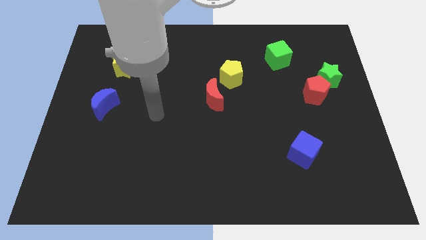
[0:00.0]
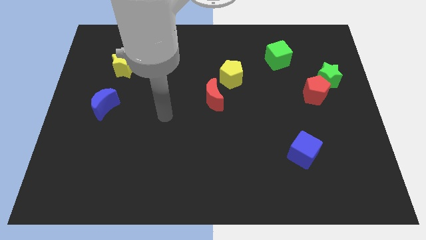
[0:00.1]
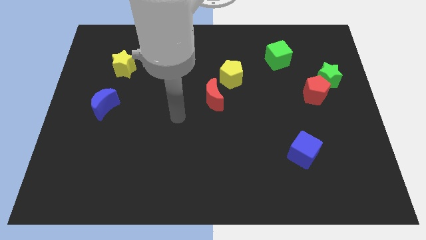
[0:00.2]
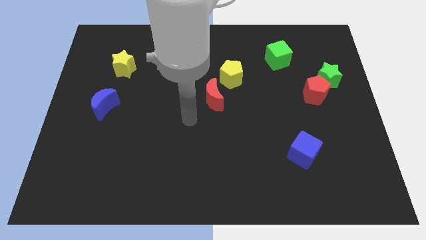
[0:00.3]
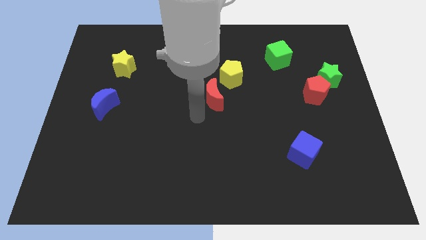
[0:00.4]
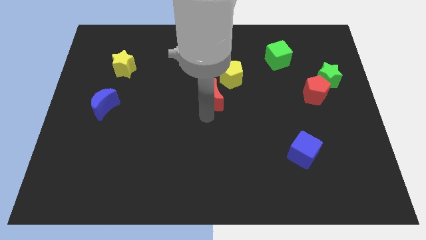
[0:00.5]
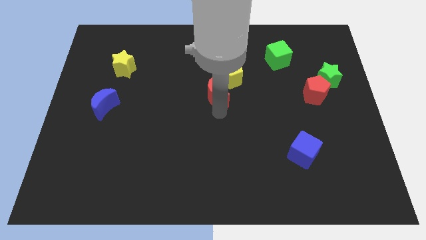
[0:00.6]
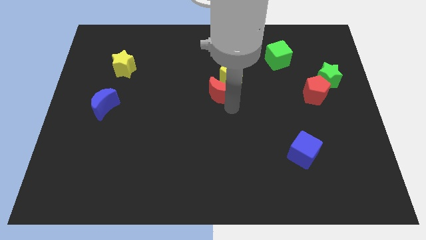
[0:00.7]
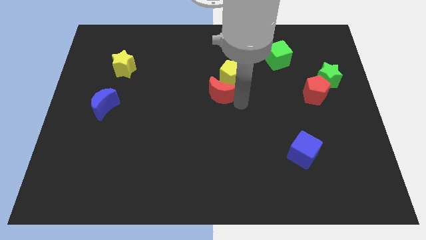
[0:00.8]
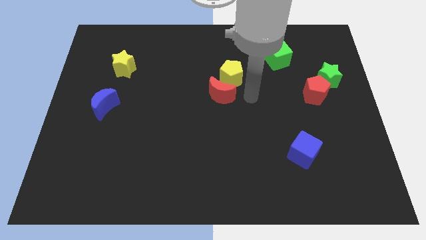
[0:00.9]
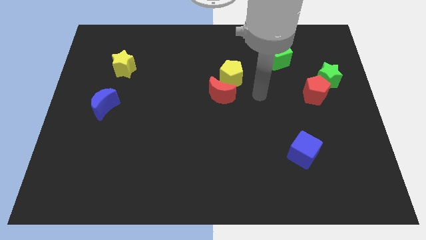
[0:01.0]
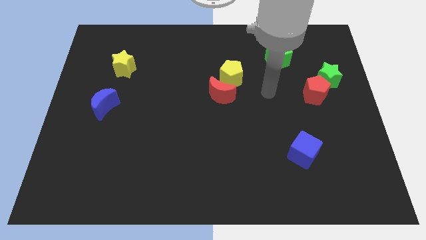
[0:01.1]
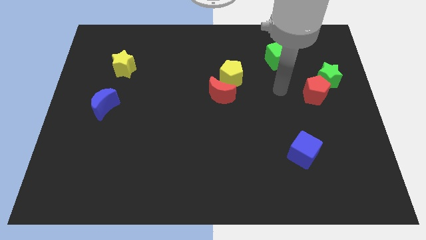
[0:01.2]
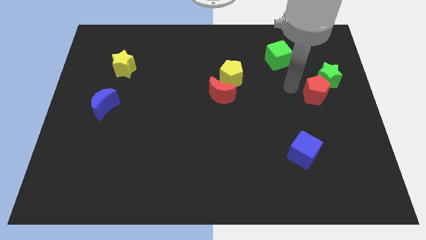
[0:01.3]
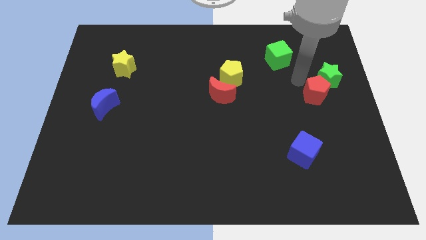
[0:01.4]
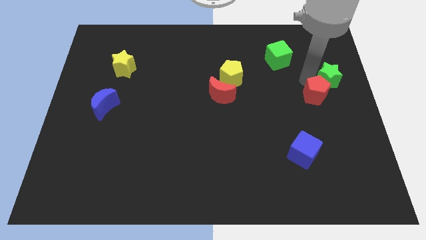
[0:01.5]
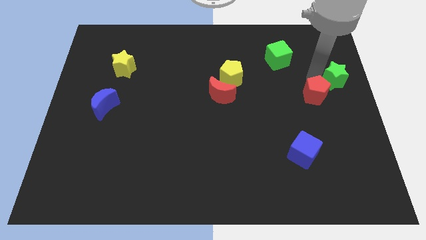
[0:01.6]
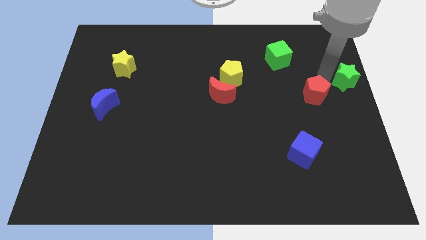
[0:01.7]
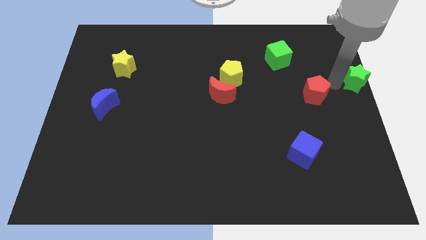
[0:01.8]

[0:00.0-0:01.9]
separate the red pentagon from the green star

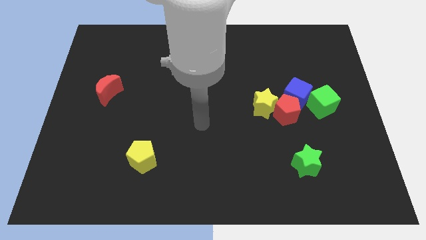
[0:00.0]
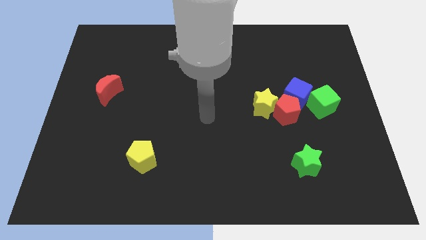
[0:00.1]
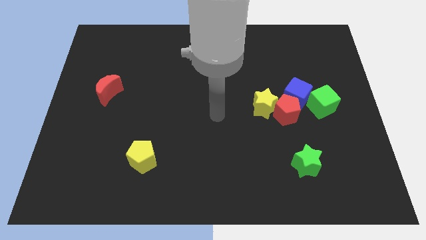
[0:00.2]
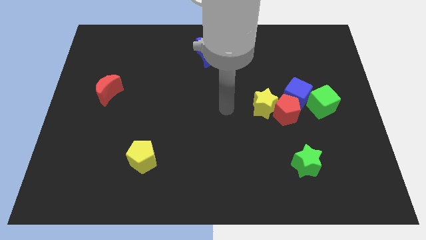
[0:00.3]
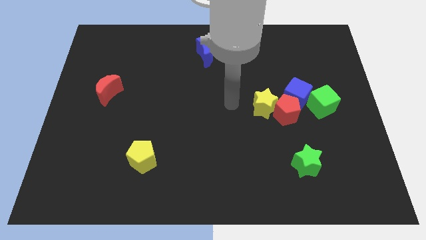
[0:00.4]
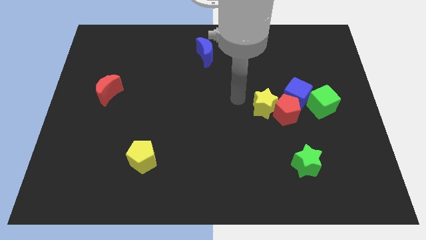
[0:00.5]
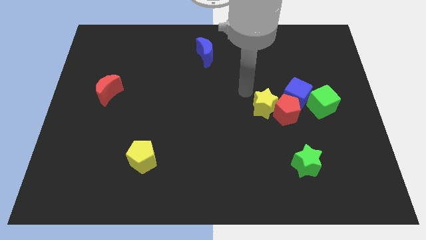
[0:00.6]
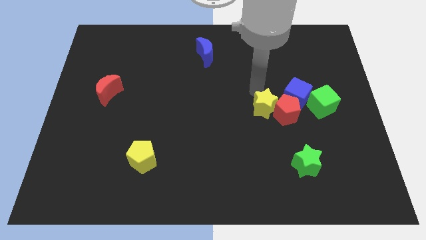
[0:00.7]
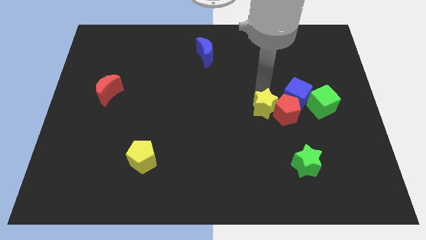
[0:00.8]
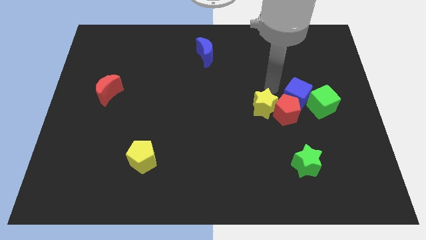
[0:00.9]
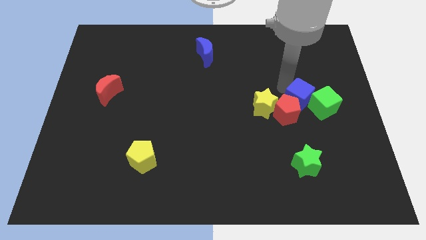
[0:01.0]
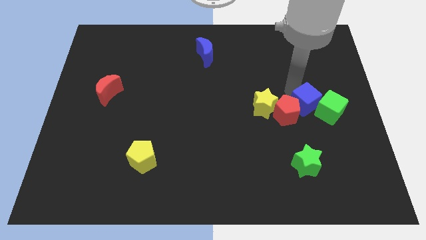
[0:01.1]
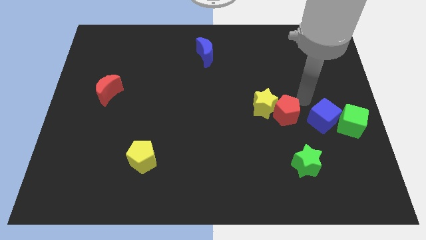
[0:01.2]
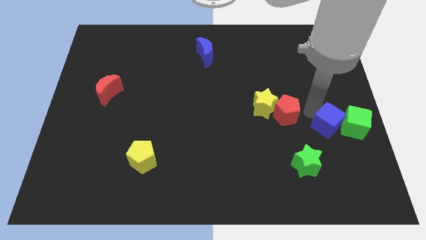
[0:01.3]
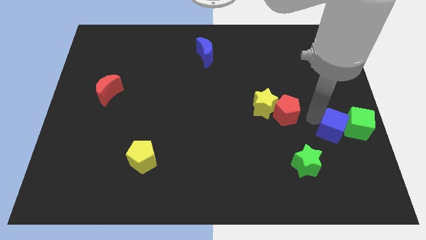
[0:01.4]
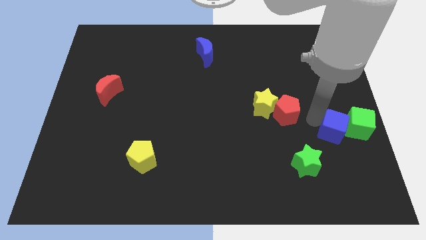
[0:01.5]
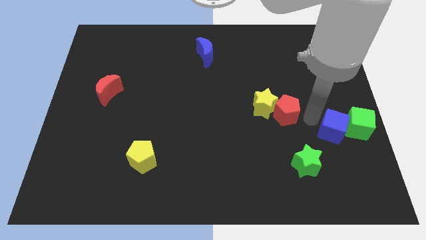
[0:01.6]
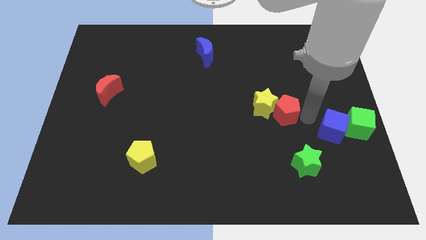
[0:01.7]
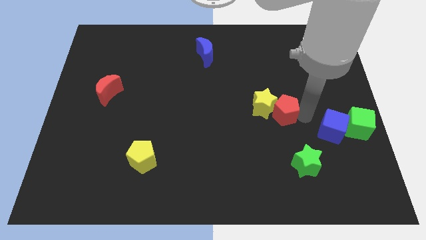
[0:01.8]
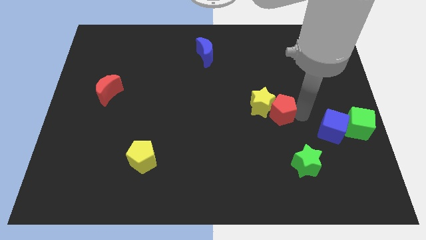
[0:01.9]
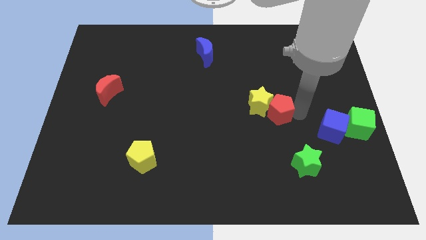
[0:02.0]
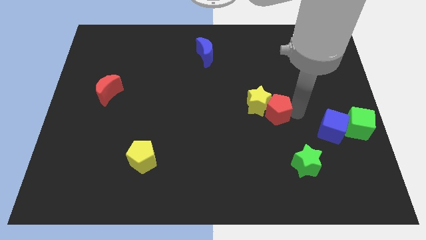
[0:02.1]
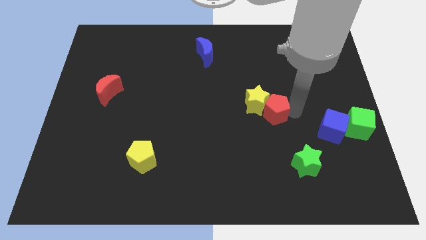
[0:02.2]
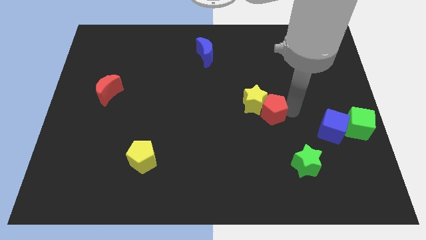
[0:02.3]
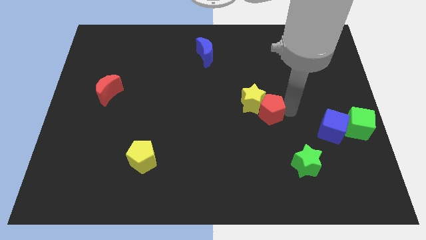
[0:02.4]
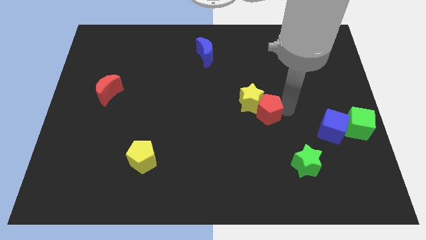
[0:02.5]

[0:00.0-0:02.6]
separate the red pentagon from the clump

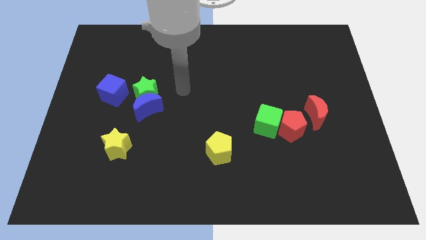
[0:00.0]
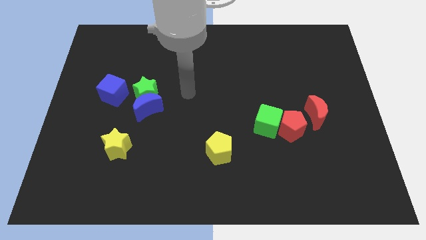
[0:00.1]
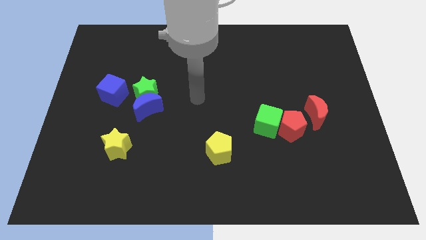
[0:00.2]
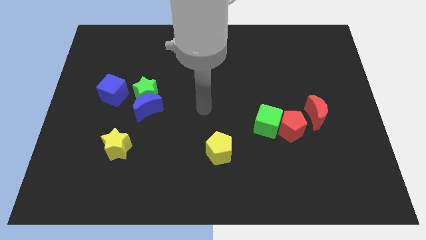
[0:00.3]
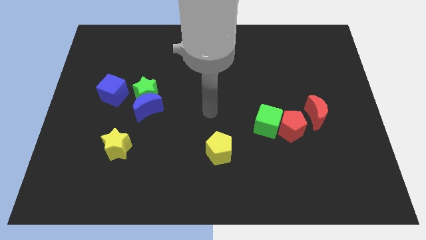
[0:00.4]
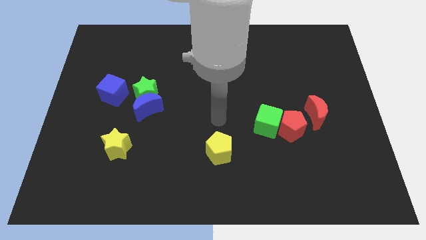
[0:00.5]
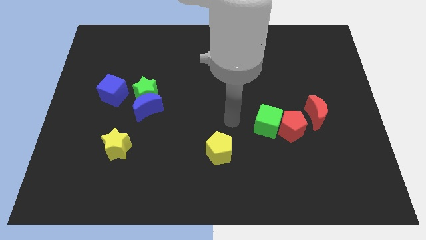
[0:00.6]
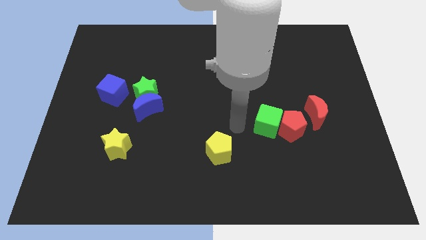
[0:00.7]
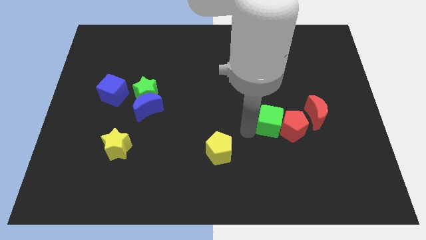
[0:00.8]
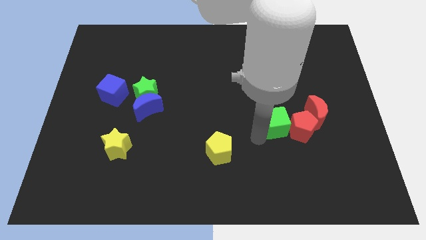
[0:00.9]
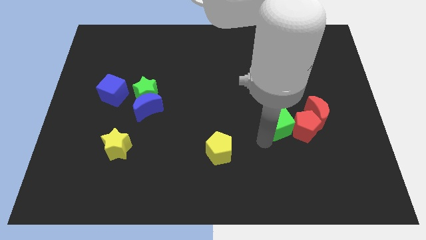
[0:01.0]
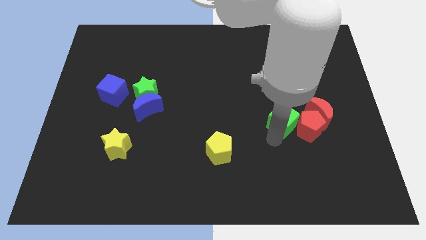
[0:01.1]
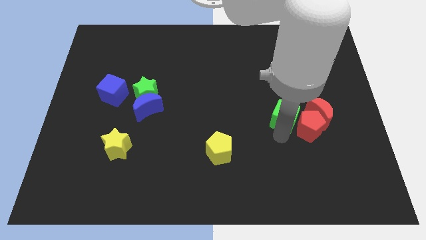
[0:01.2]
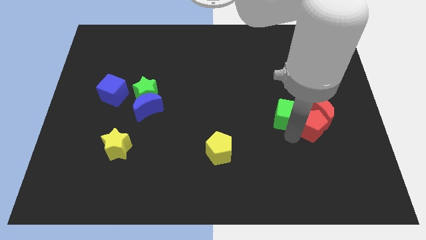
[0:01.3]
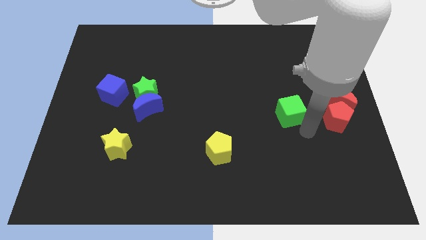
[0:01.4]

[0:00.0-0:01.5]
pull the green cube apart from the red pentagon

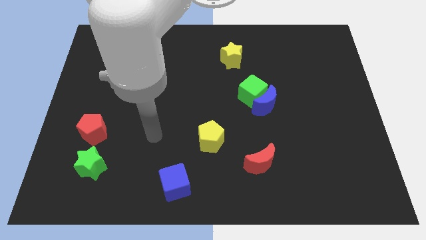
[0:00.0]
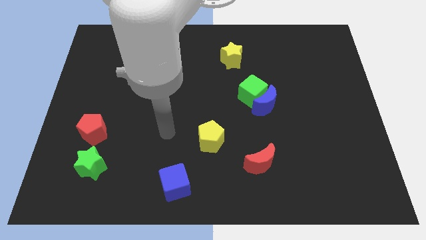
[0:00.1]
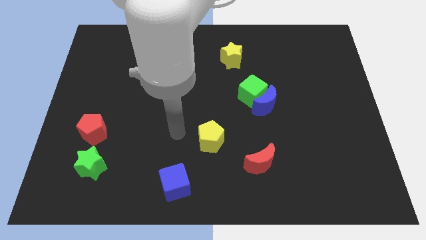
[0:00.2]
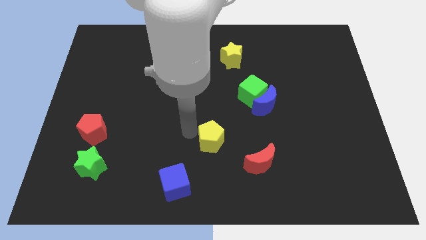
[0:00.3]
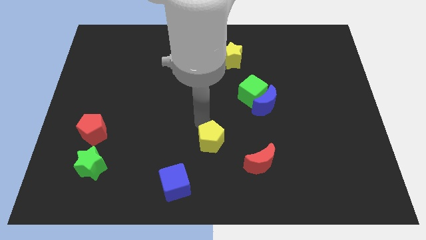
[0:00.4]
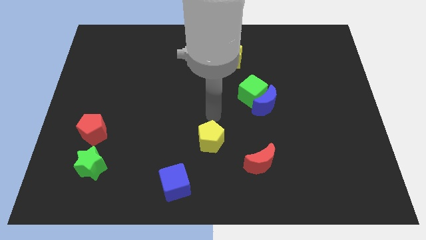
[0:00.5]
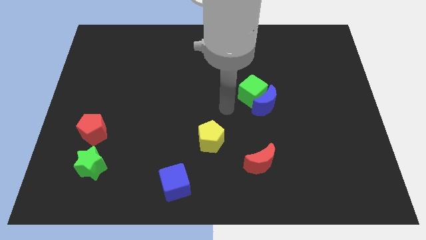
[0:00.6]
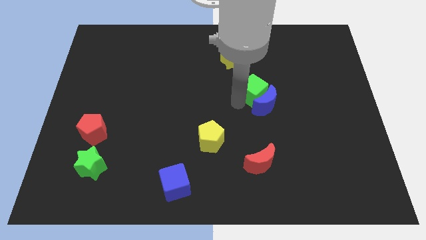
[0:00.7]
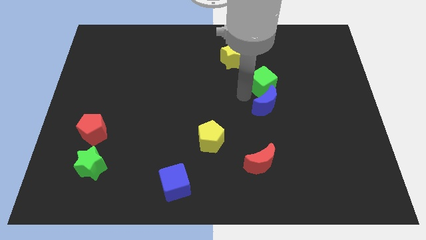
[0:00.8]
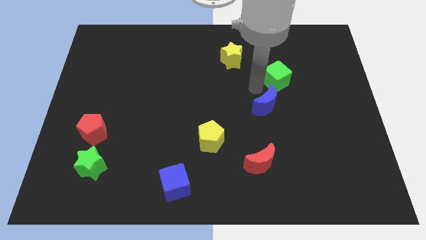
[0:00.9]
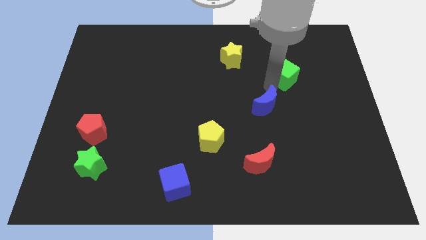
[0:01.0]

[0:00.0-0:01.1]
separate the blue moon from the green cube

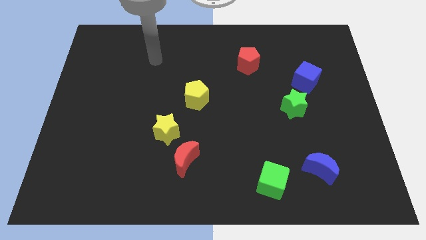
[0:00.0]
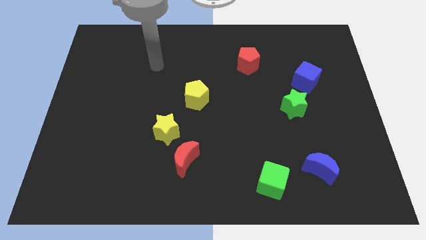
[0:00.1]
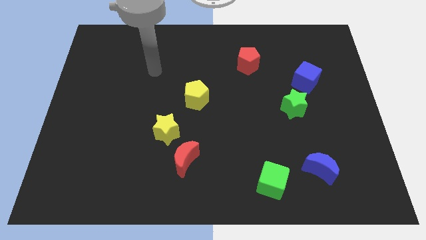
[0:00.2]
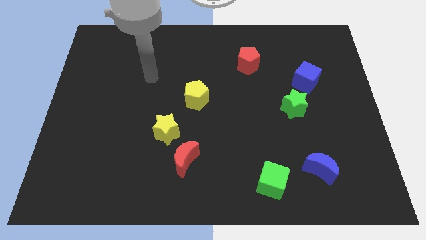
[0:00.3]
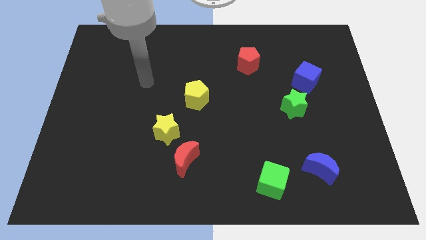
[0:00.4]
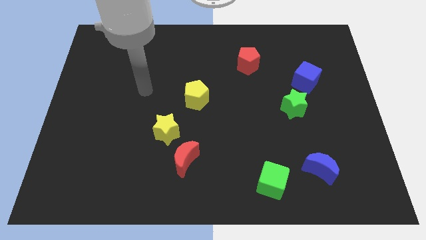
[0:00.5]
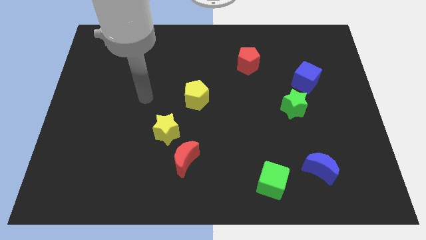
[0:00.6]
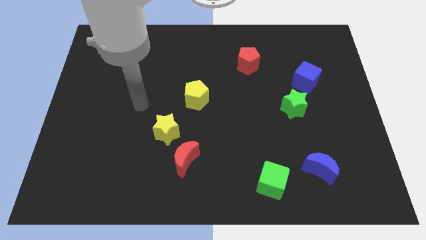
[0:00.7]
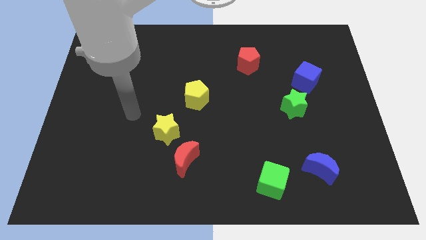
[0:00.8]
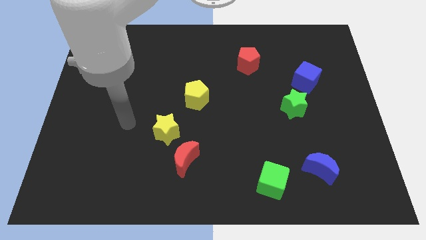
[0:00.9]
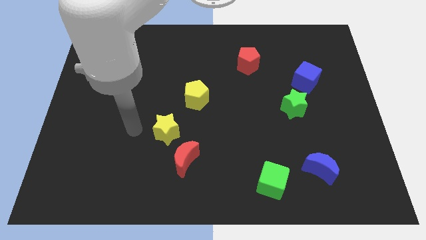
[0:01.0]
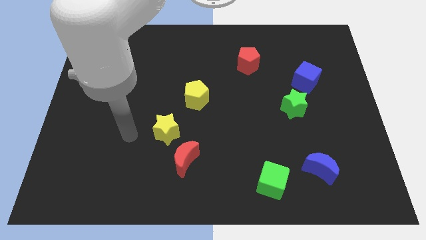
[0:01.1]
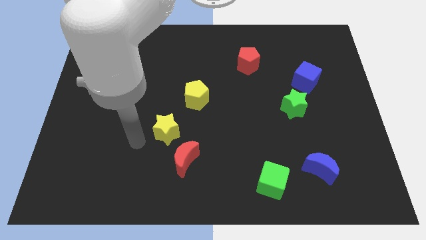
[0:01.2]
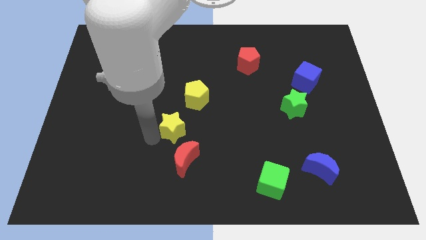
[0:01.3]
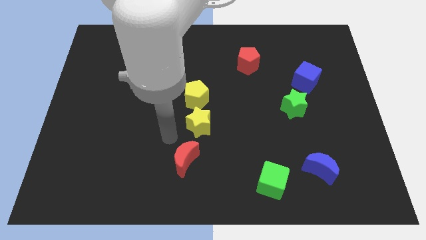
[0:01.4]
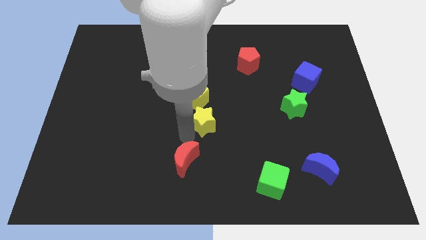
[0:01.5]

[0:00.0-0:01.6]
separate the red moon from the yellow star

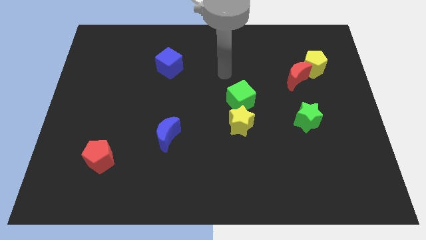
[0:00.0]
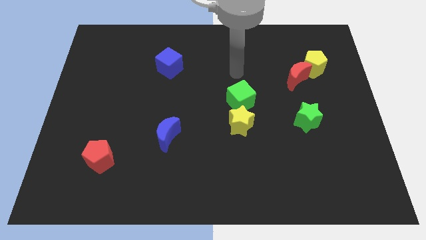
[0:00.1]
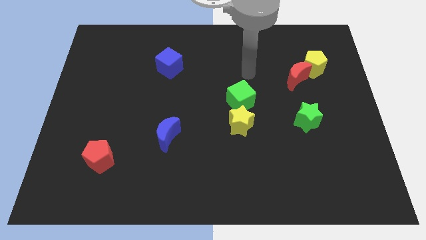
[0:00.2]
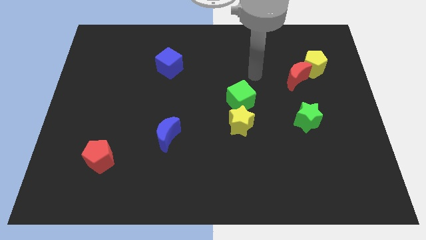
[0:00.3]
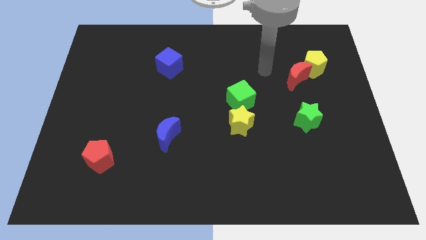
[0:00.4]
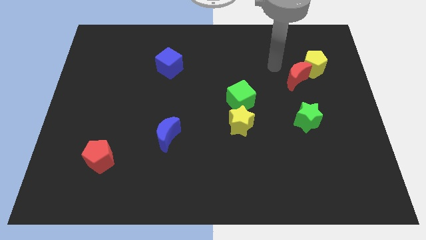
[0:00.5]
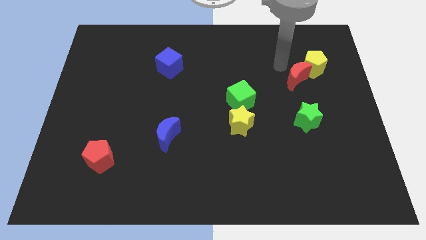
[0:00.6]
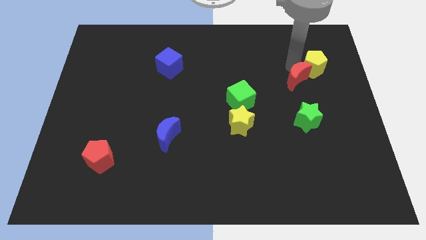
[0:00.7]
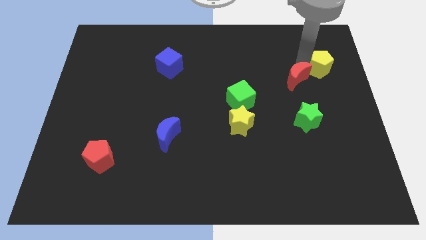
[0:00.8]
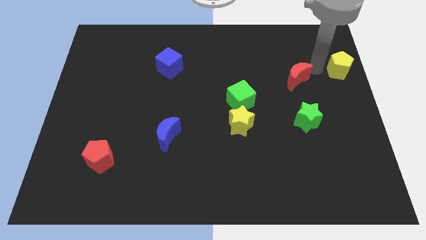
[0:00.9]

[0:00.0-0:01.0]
move the red moon away from the yellow pentagon
